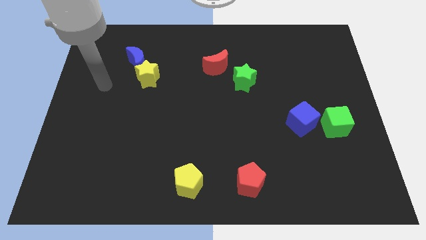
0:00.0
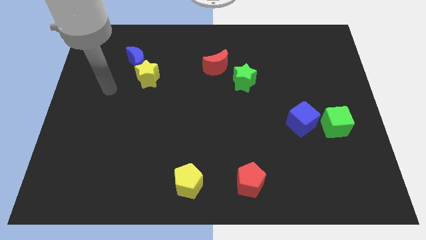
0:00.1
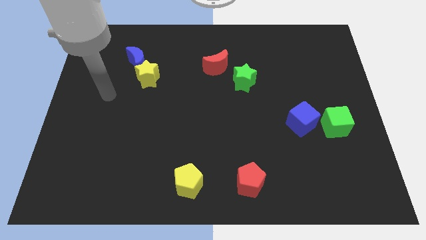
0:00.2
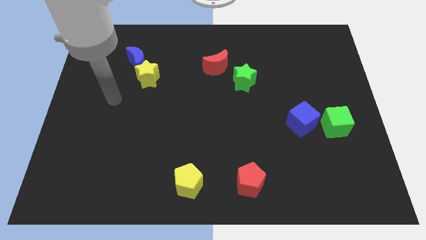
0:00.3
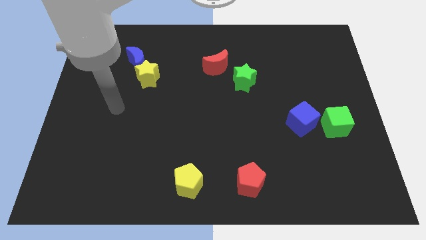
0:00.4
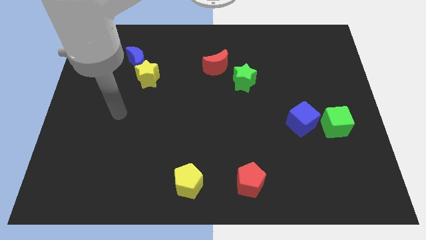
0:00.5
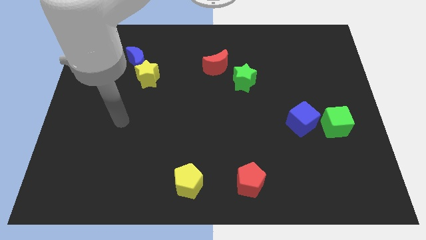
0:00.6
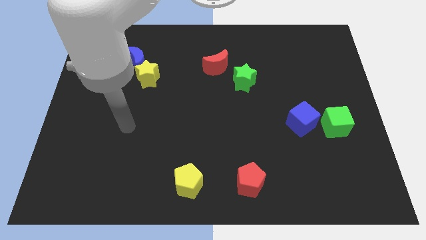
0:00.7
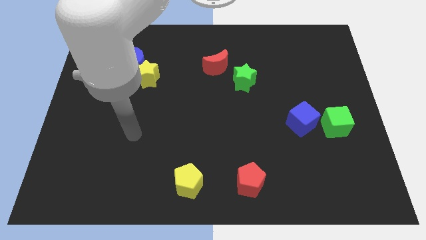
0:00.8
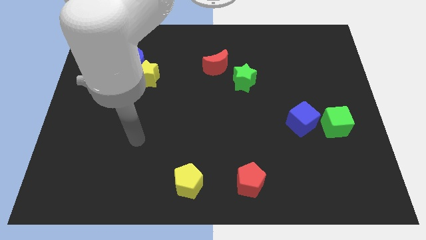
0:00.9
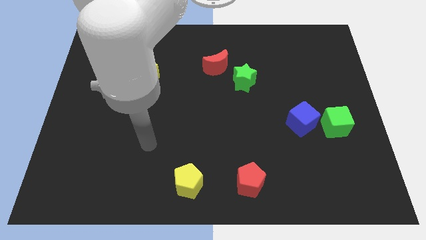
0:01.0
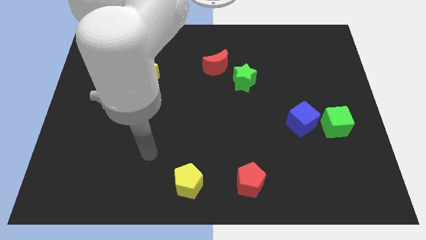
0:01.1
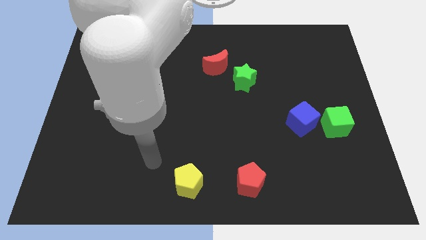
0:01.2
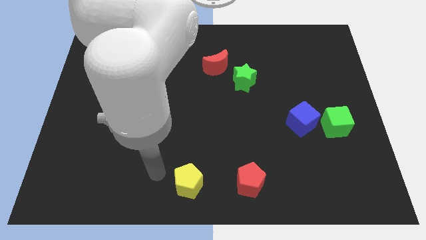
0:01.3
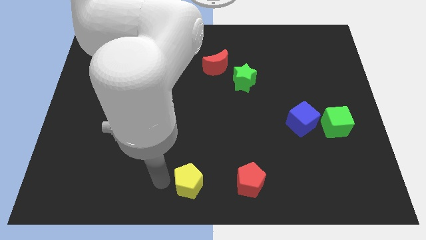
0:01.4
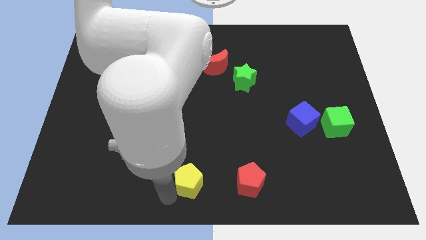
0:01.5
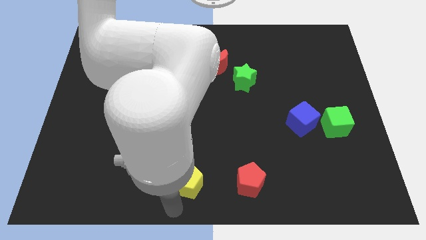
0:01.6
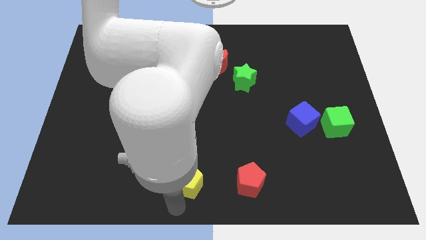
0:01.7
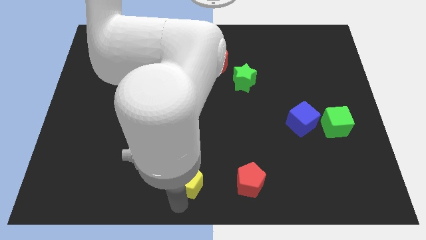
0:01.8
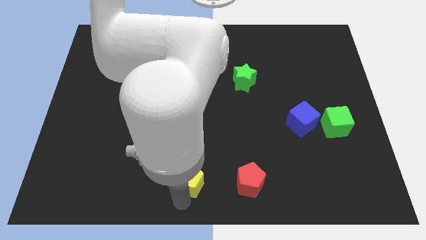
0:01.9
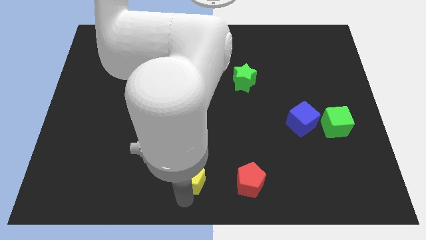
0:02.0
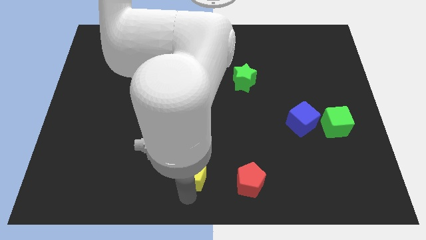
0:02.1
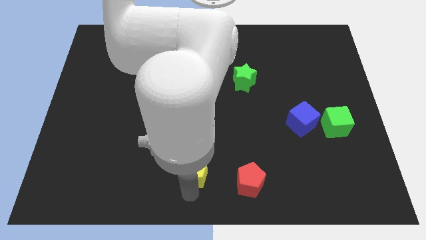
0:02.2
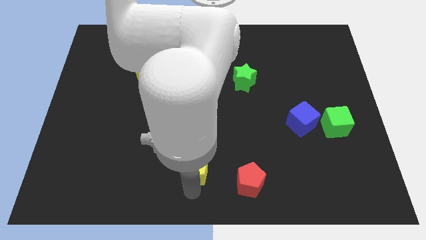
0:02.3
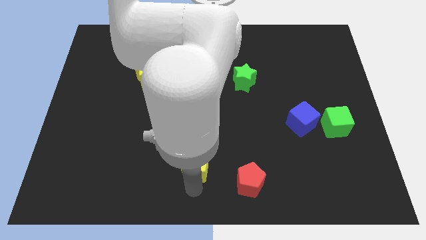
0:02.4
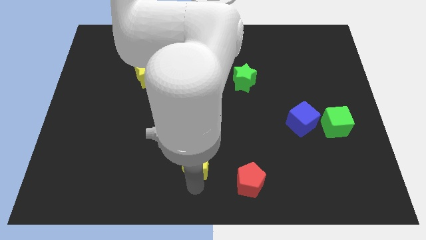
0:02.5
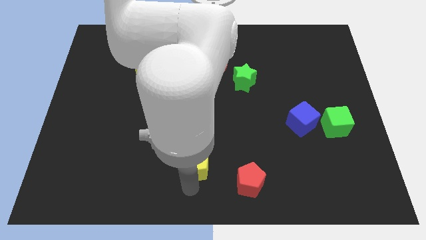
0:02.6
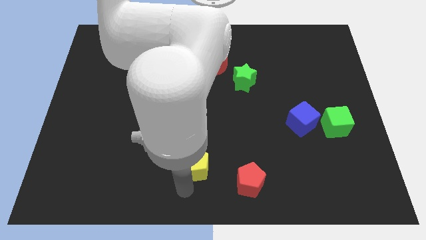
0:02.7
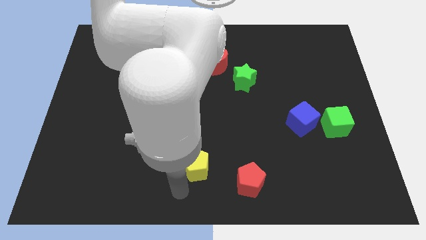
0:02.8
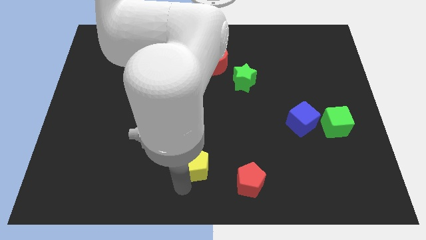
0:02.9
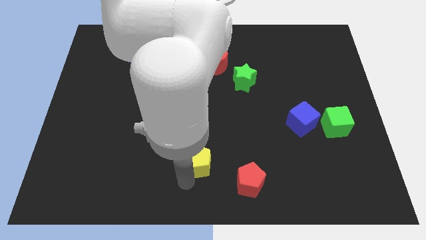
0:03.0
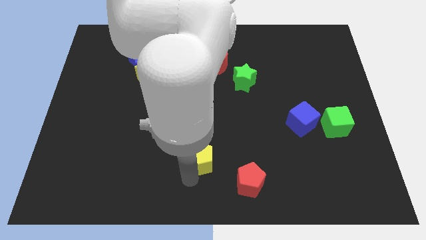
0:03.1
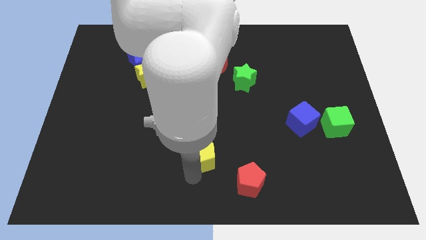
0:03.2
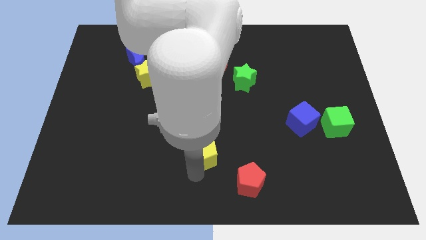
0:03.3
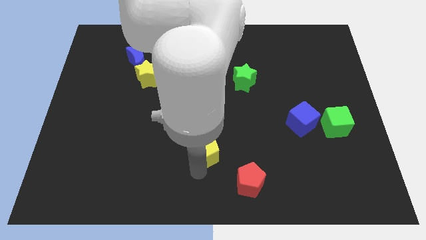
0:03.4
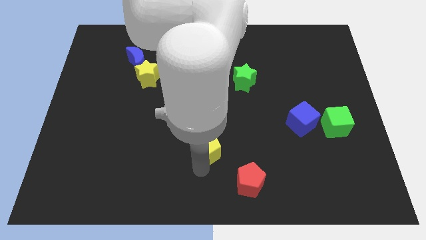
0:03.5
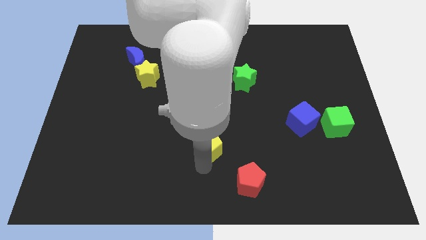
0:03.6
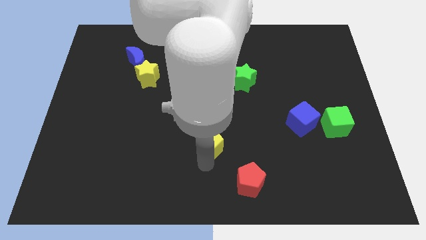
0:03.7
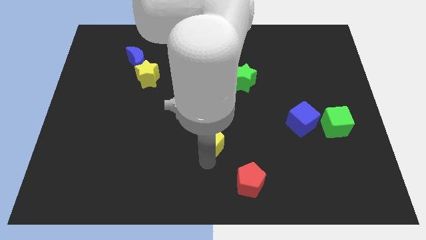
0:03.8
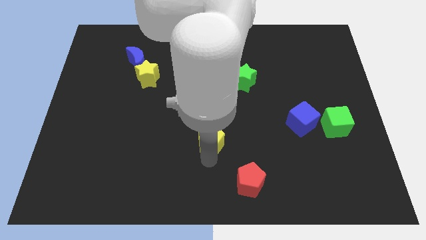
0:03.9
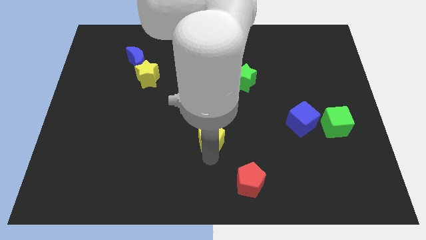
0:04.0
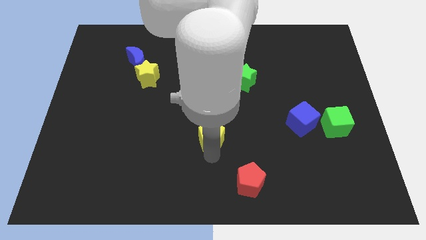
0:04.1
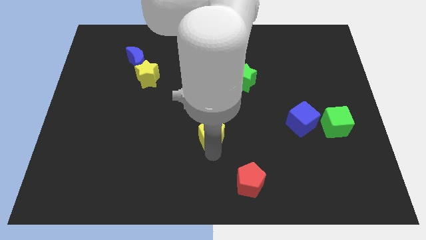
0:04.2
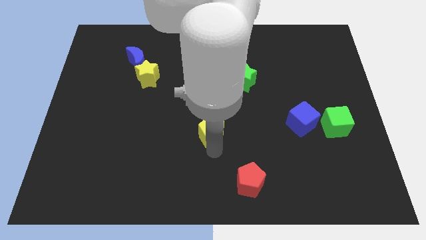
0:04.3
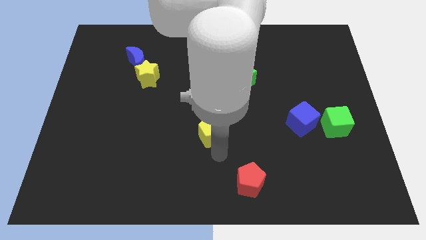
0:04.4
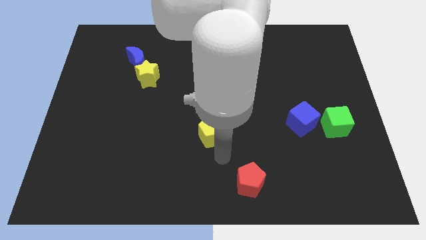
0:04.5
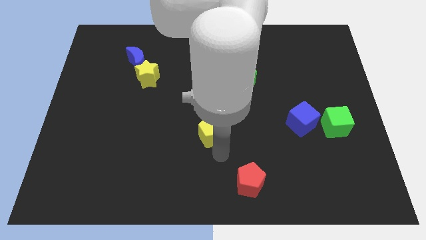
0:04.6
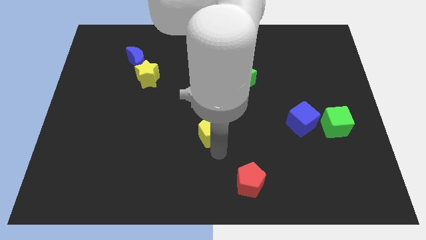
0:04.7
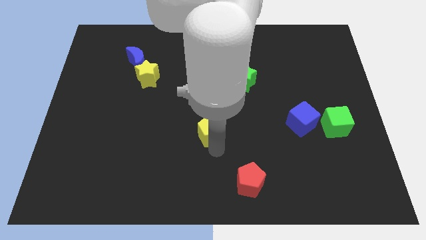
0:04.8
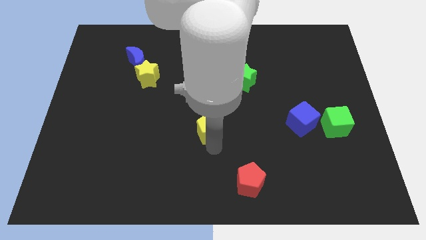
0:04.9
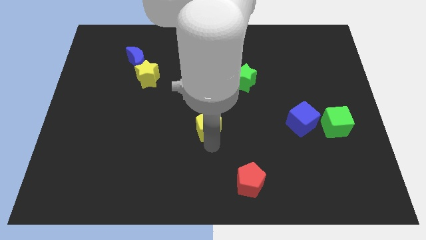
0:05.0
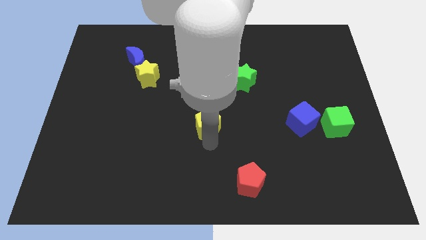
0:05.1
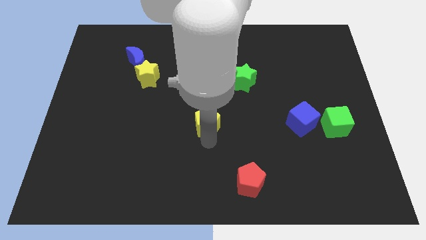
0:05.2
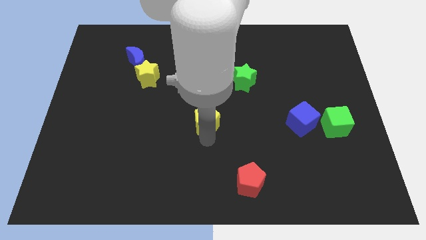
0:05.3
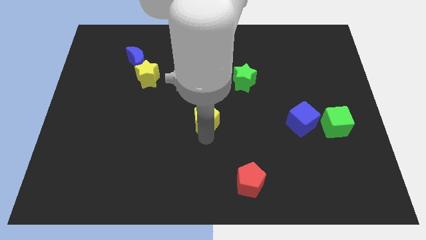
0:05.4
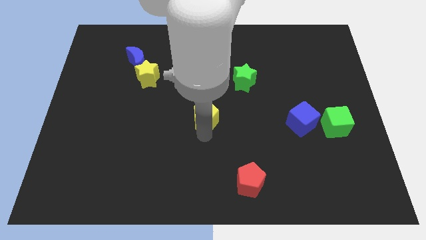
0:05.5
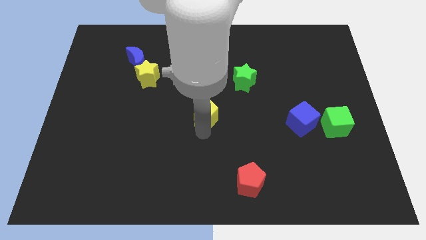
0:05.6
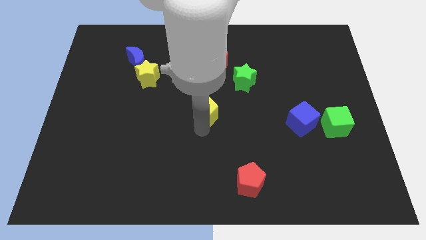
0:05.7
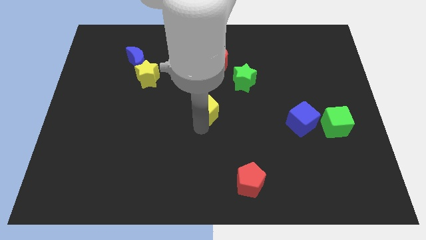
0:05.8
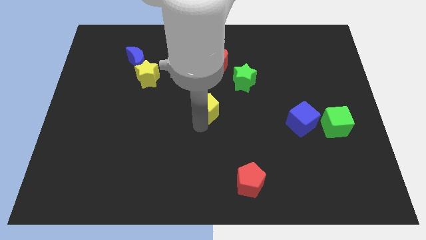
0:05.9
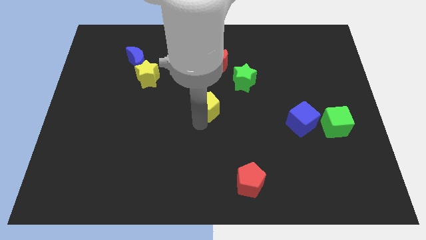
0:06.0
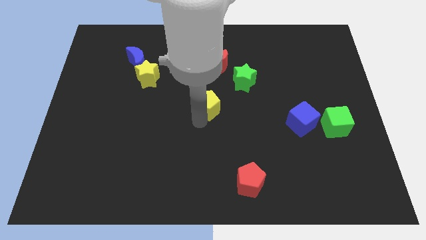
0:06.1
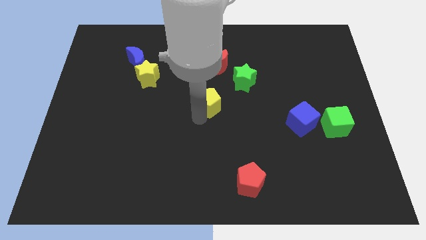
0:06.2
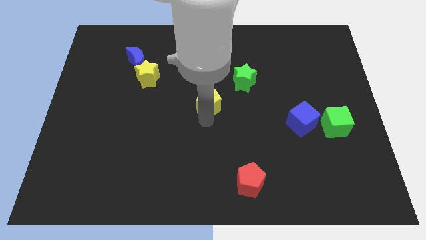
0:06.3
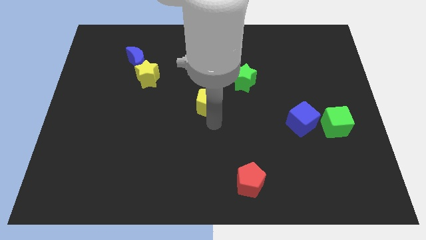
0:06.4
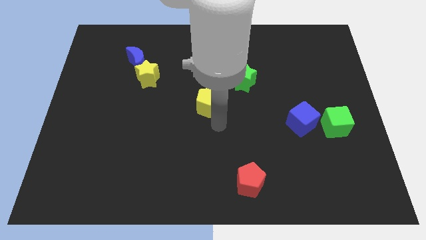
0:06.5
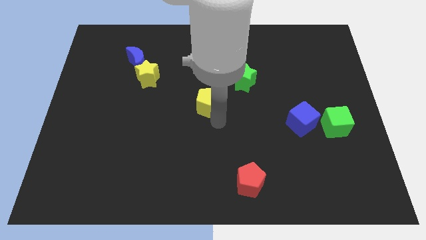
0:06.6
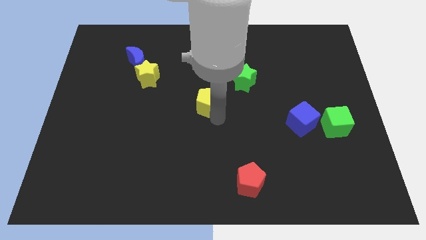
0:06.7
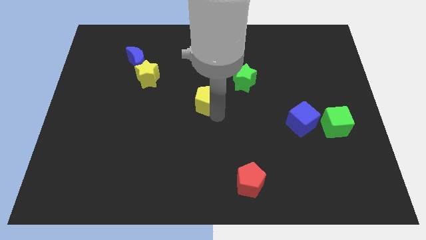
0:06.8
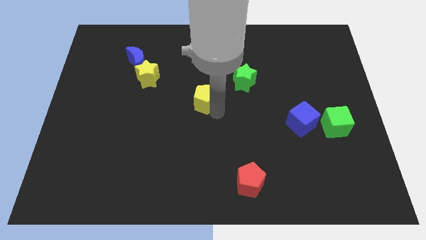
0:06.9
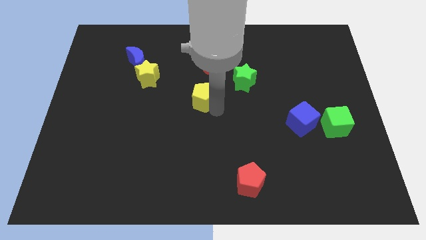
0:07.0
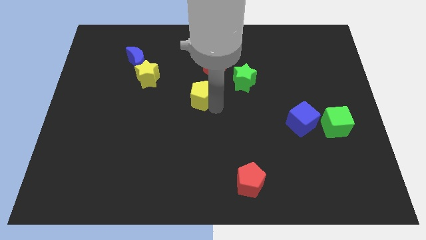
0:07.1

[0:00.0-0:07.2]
push the yellow pentagon to the bottom left of the red moon
